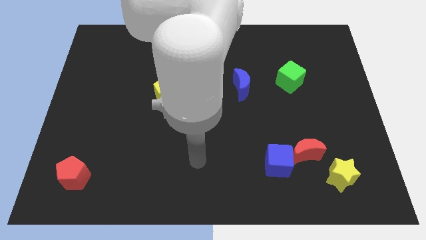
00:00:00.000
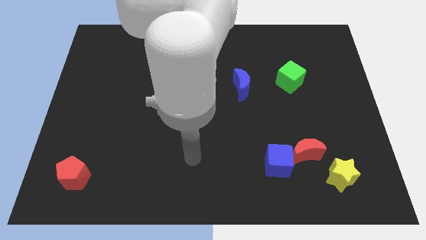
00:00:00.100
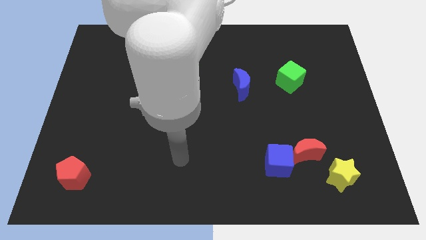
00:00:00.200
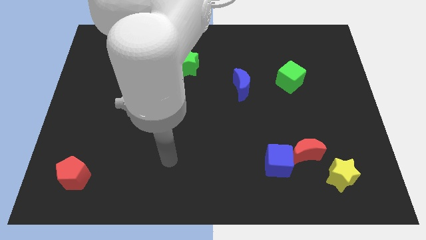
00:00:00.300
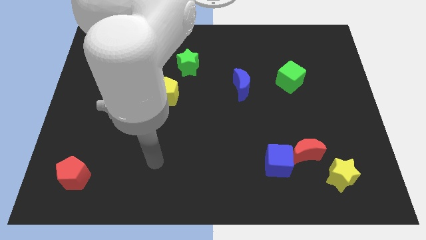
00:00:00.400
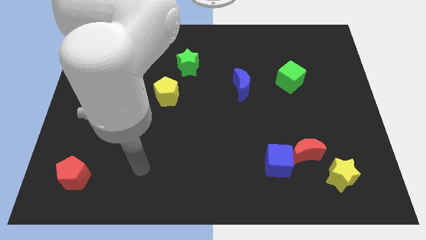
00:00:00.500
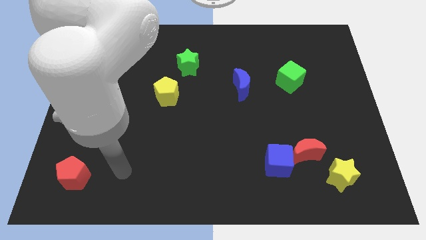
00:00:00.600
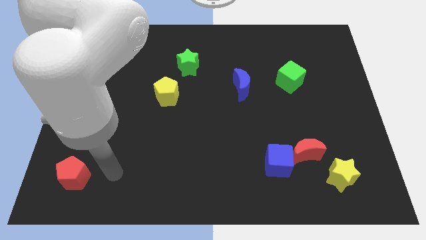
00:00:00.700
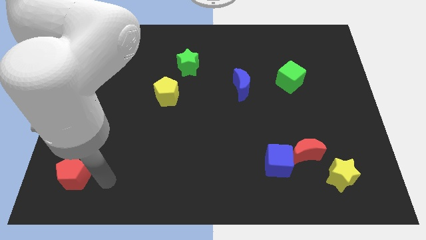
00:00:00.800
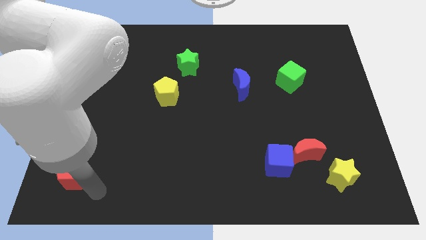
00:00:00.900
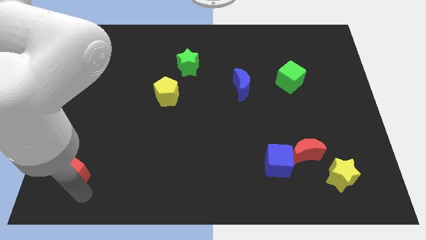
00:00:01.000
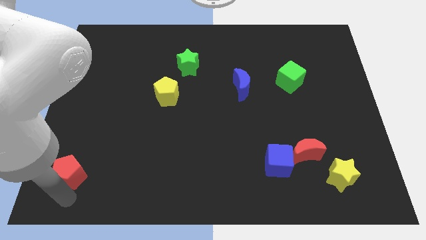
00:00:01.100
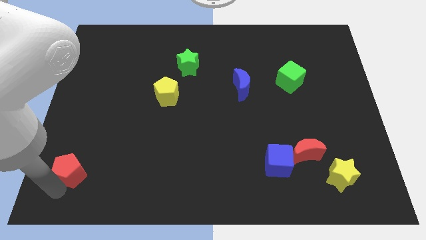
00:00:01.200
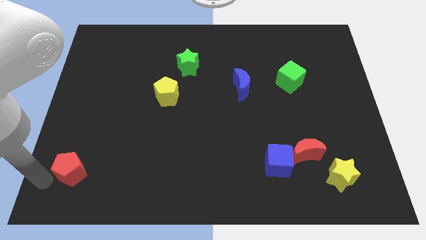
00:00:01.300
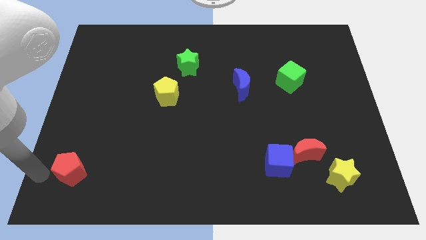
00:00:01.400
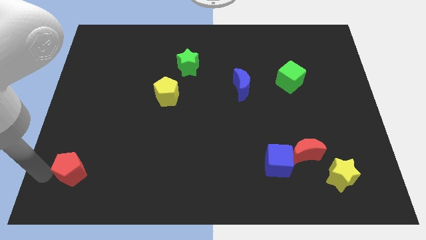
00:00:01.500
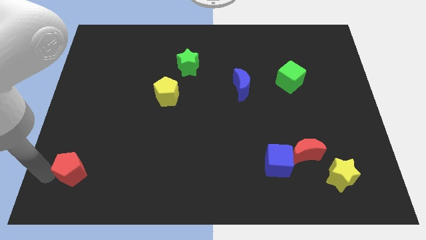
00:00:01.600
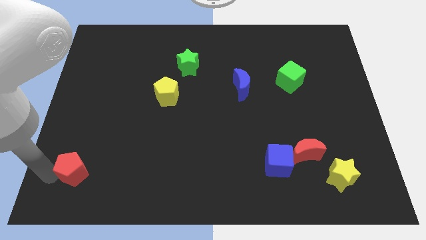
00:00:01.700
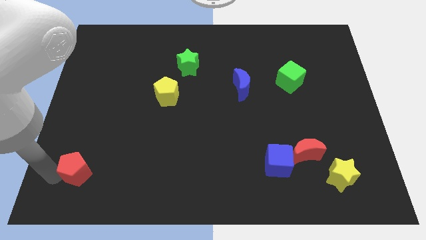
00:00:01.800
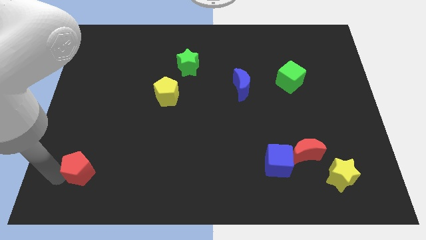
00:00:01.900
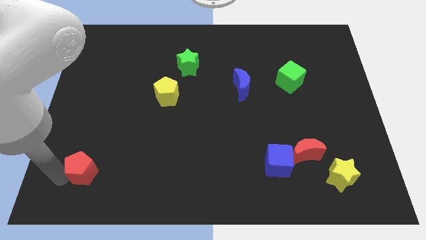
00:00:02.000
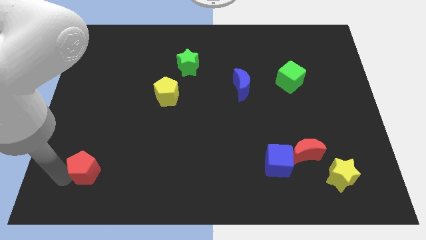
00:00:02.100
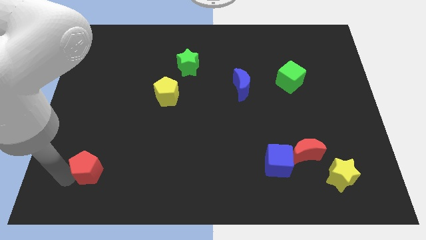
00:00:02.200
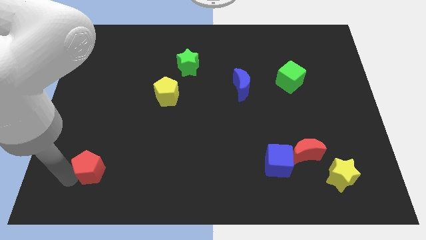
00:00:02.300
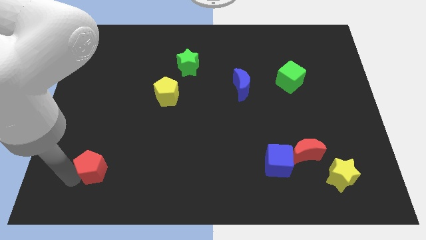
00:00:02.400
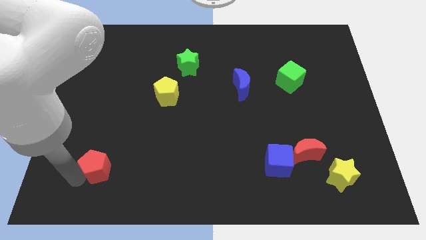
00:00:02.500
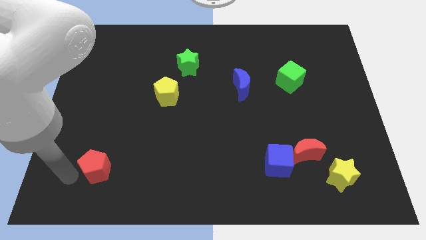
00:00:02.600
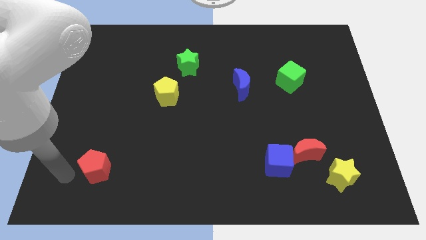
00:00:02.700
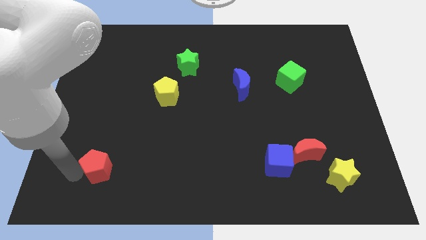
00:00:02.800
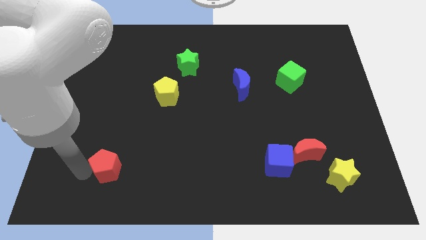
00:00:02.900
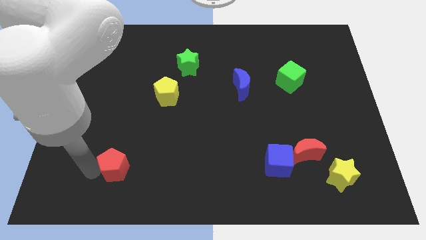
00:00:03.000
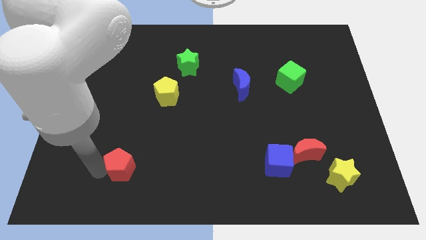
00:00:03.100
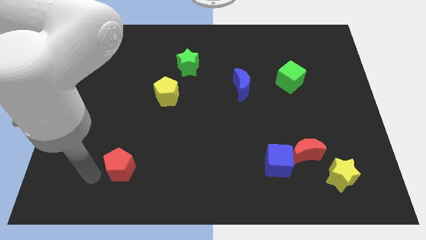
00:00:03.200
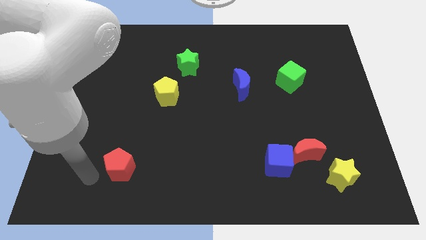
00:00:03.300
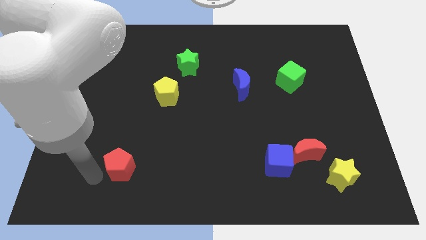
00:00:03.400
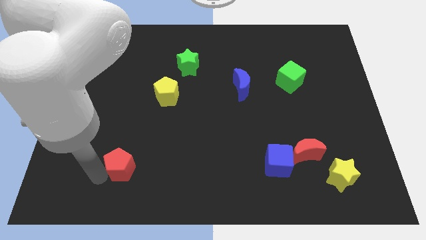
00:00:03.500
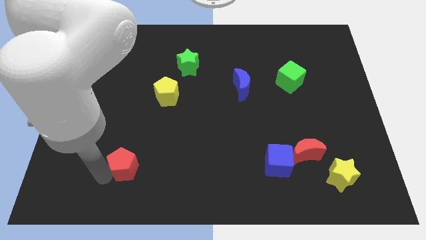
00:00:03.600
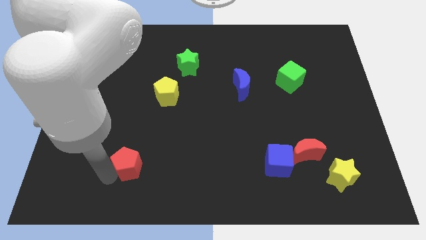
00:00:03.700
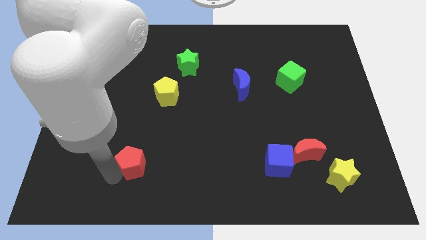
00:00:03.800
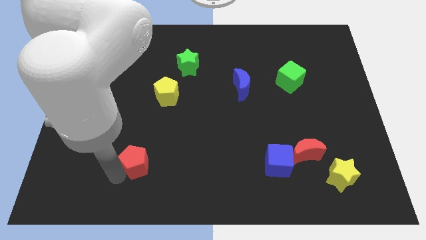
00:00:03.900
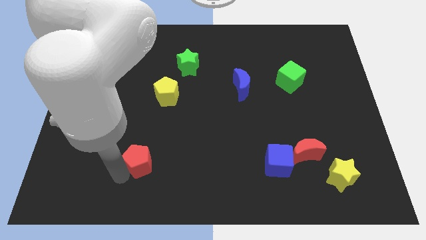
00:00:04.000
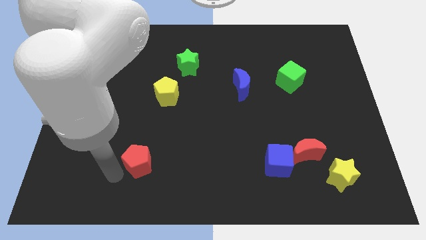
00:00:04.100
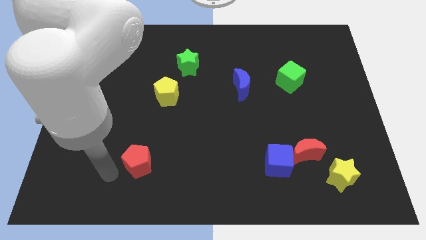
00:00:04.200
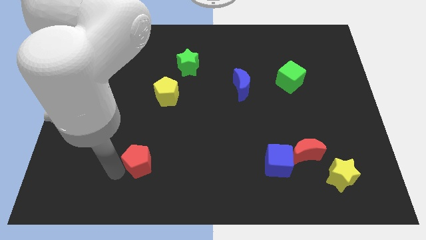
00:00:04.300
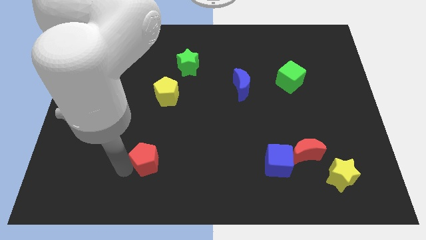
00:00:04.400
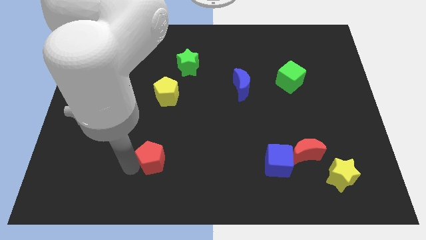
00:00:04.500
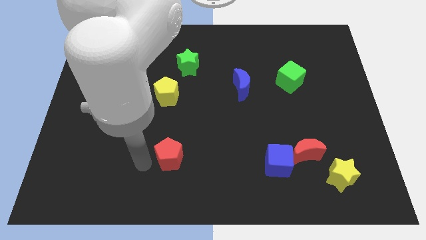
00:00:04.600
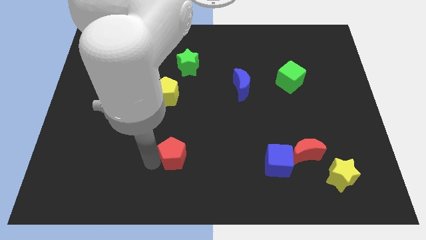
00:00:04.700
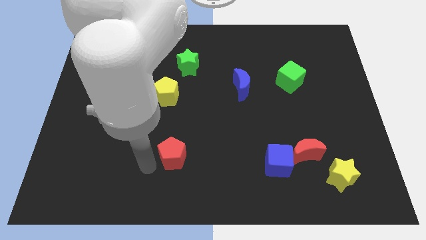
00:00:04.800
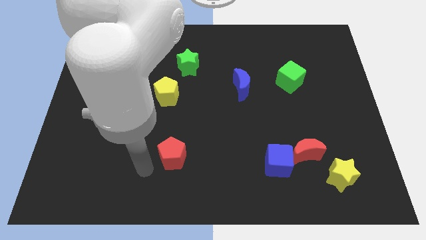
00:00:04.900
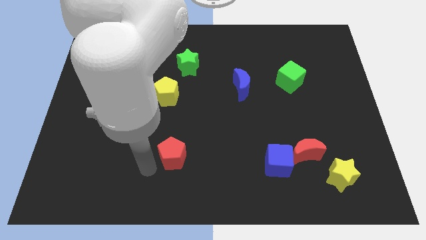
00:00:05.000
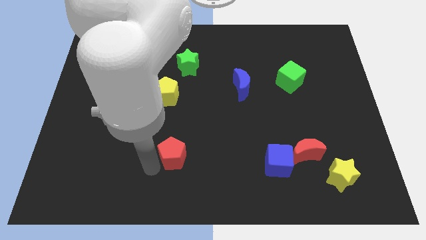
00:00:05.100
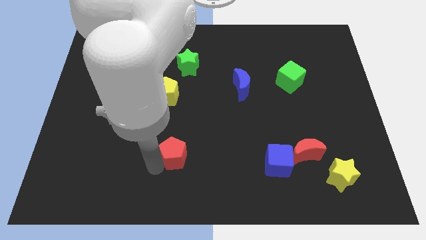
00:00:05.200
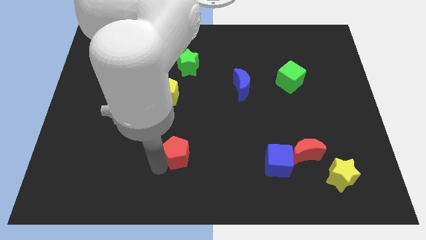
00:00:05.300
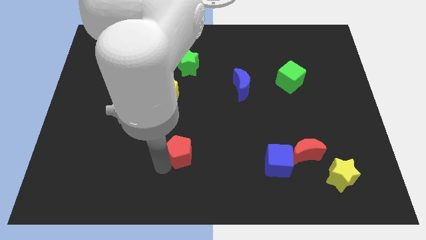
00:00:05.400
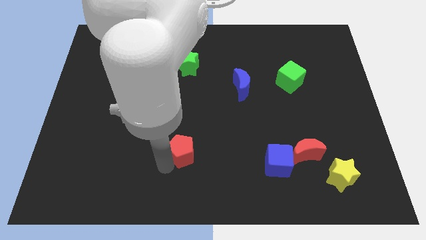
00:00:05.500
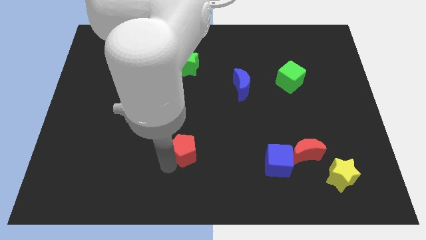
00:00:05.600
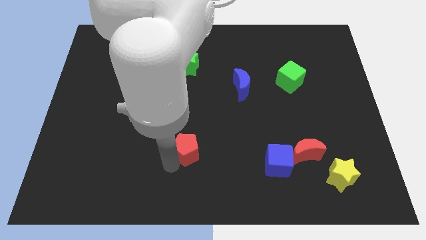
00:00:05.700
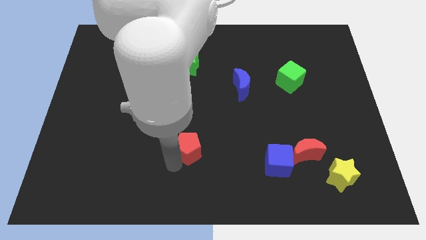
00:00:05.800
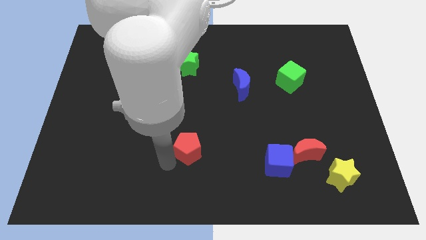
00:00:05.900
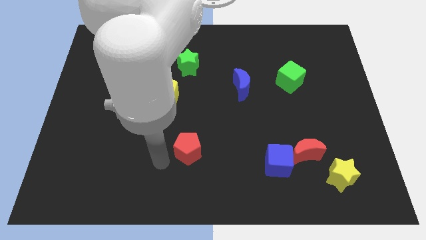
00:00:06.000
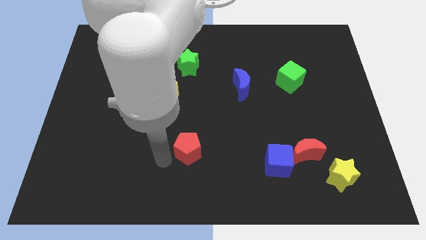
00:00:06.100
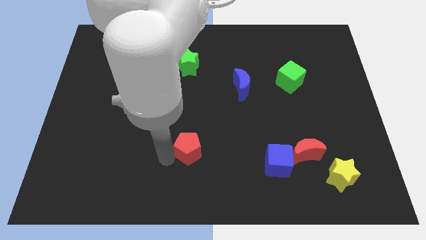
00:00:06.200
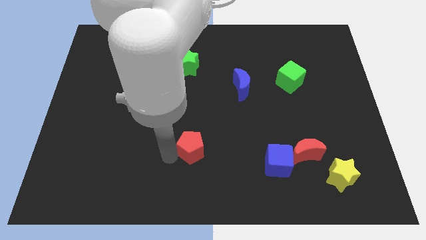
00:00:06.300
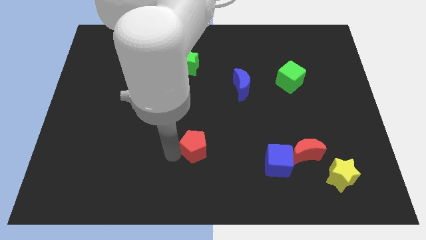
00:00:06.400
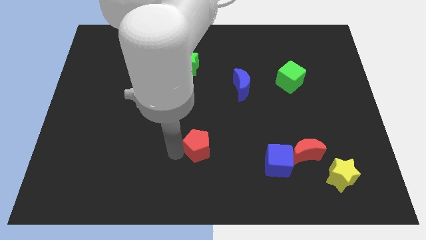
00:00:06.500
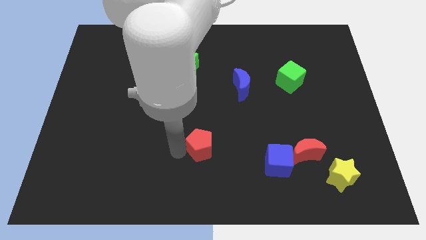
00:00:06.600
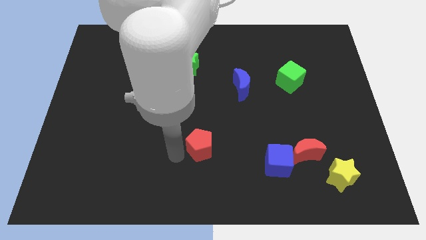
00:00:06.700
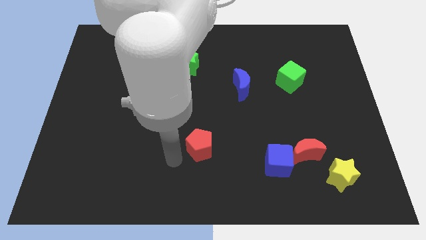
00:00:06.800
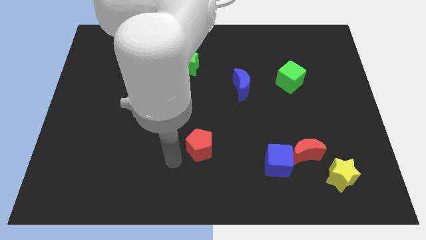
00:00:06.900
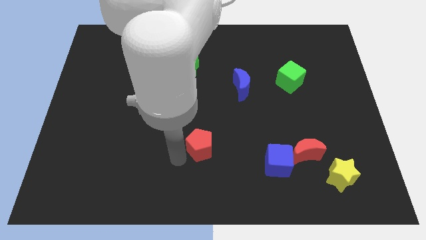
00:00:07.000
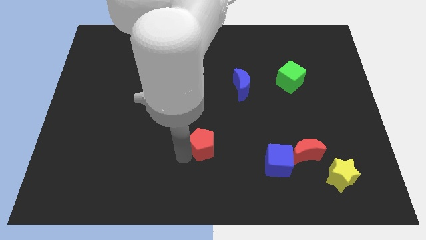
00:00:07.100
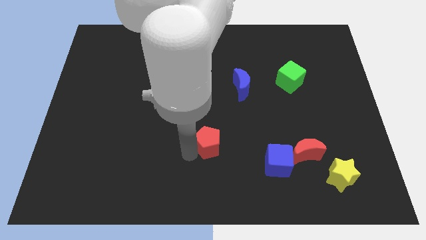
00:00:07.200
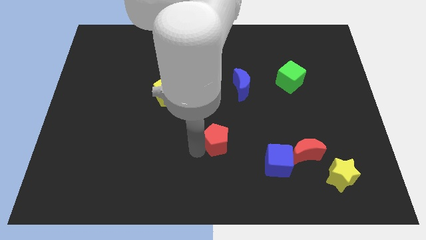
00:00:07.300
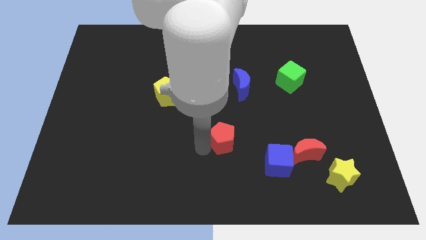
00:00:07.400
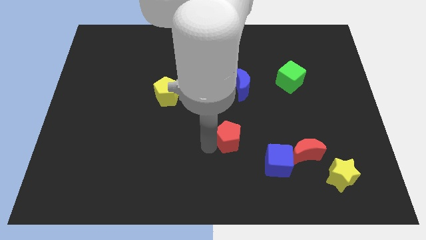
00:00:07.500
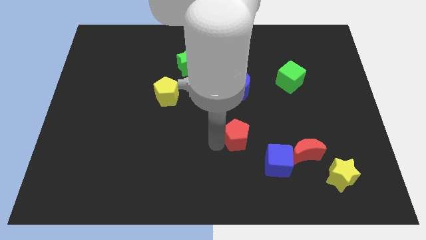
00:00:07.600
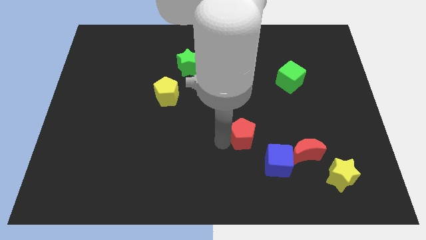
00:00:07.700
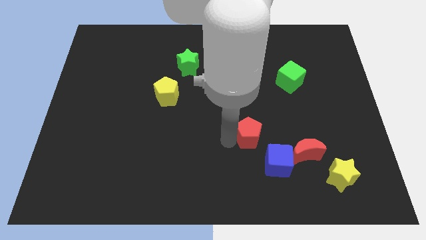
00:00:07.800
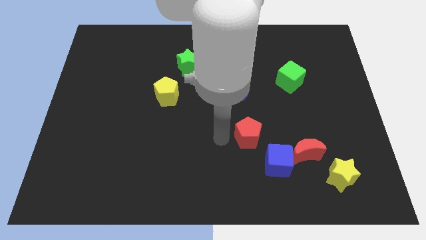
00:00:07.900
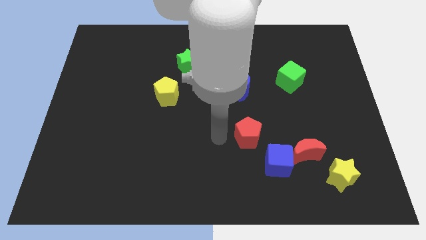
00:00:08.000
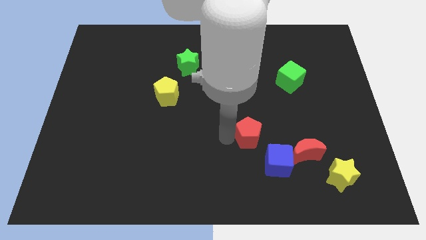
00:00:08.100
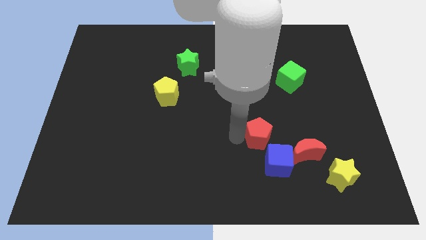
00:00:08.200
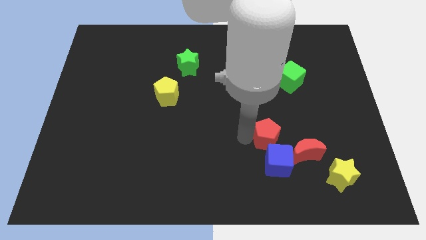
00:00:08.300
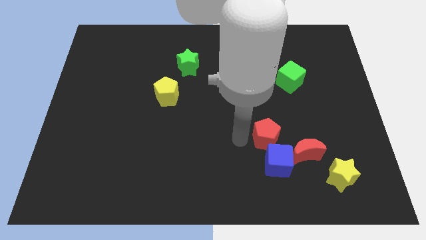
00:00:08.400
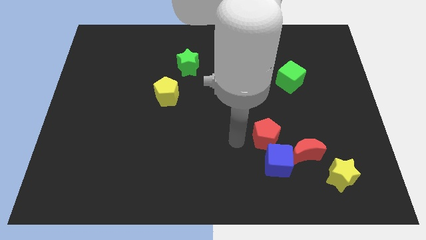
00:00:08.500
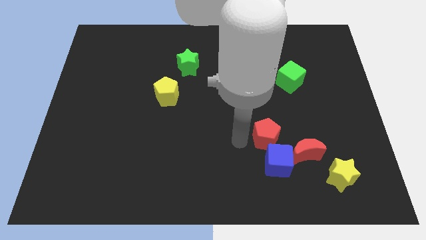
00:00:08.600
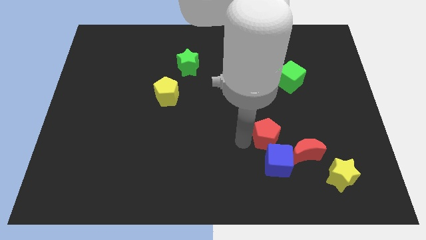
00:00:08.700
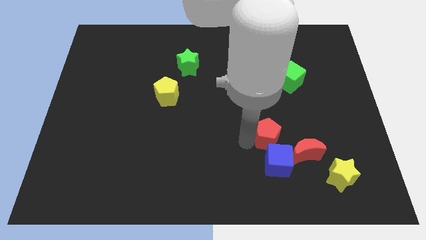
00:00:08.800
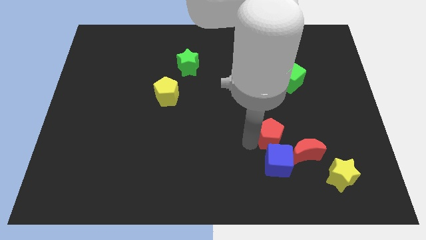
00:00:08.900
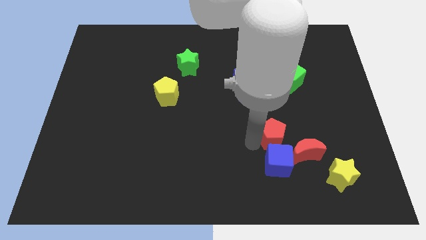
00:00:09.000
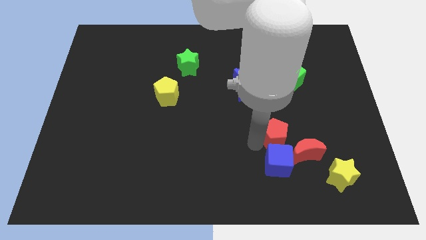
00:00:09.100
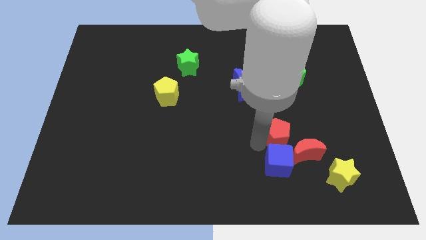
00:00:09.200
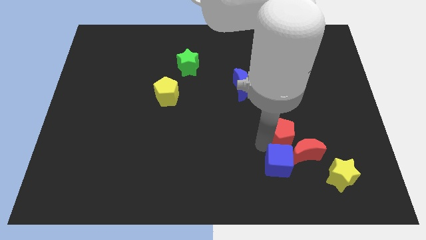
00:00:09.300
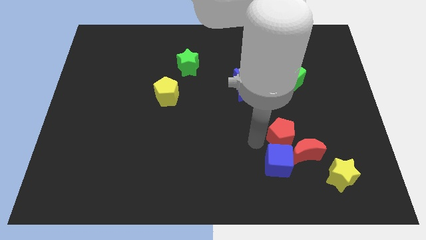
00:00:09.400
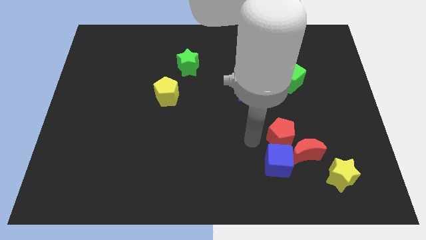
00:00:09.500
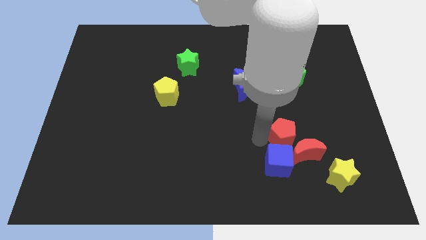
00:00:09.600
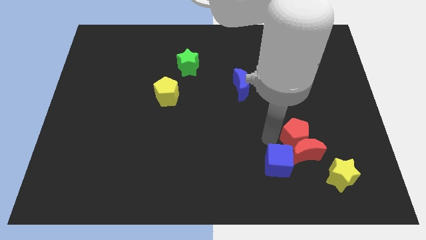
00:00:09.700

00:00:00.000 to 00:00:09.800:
move the red pentagon to the top right side of the red moon
